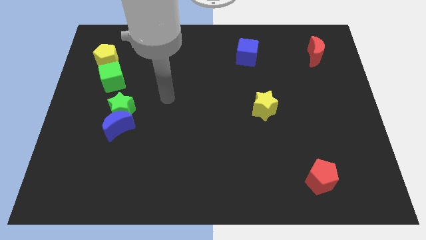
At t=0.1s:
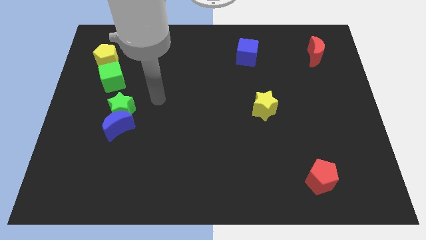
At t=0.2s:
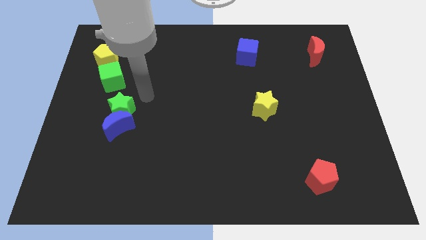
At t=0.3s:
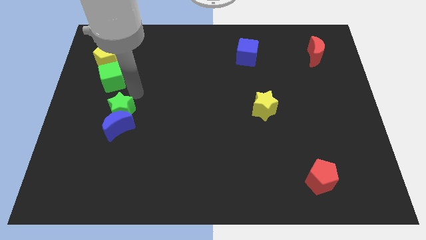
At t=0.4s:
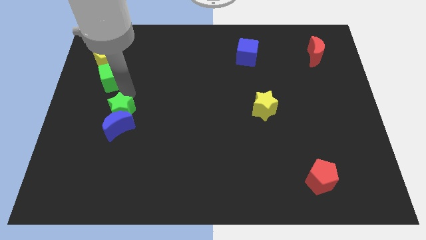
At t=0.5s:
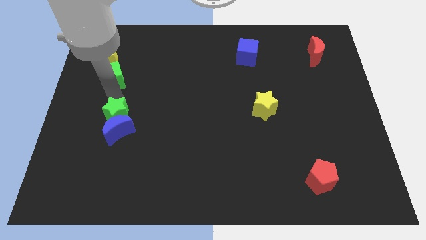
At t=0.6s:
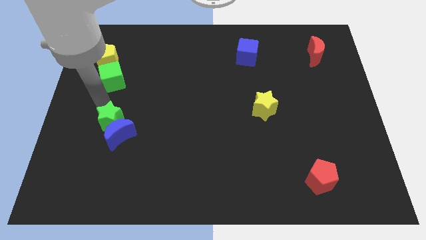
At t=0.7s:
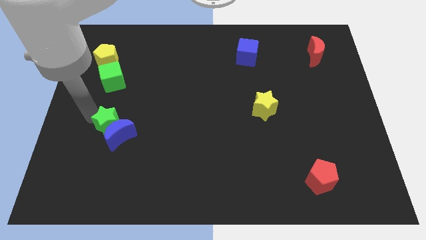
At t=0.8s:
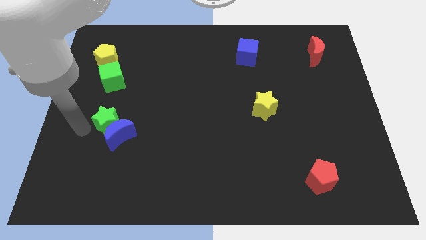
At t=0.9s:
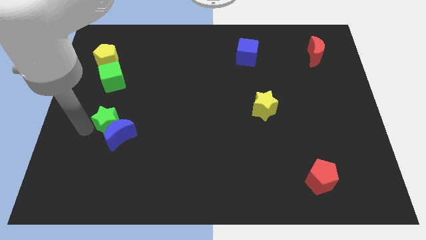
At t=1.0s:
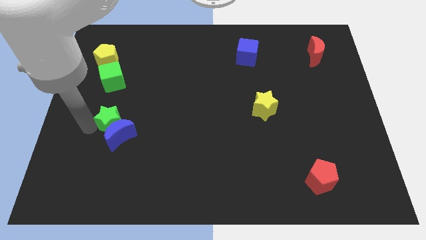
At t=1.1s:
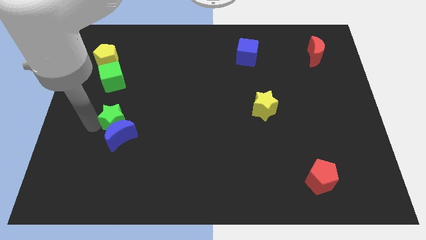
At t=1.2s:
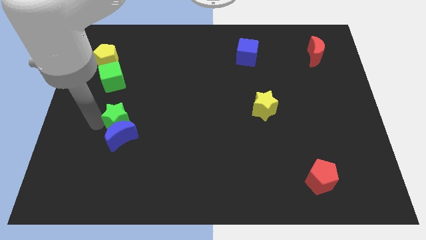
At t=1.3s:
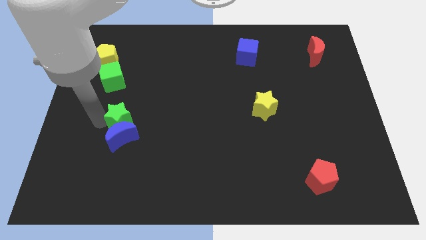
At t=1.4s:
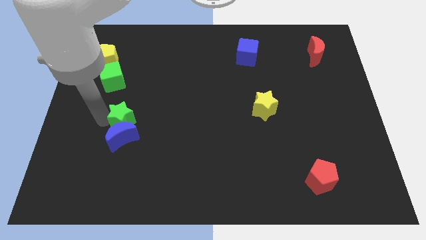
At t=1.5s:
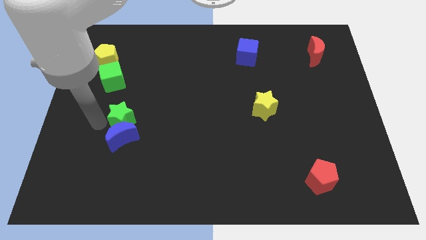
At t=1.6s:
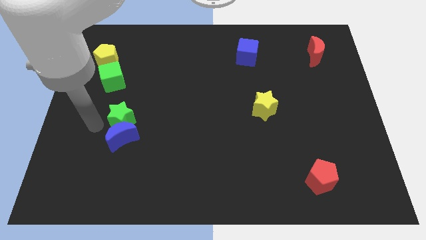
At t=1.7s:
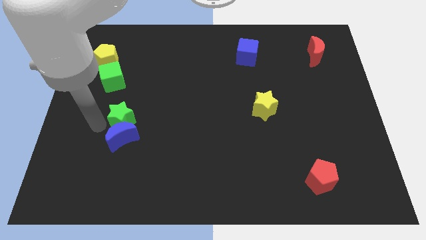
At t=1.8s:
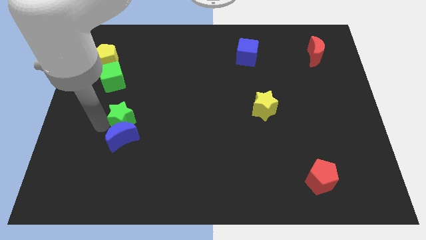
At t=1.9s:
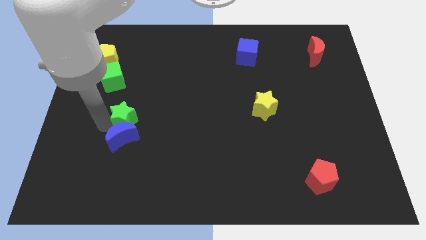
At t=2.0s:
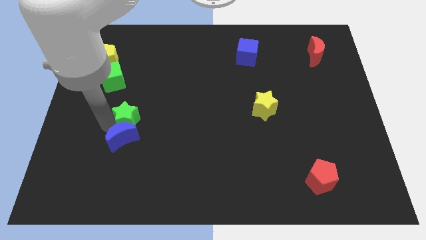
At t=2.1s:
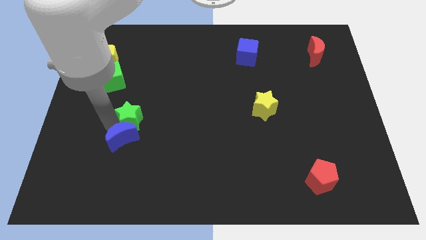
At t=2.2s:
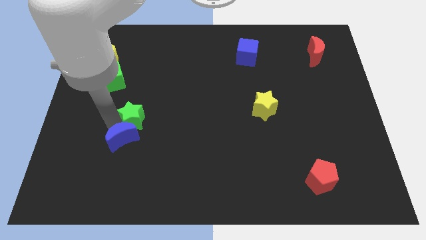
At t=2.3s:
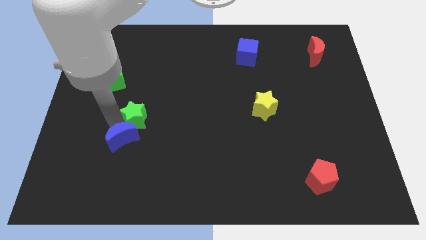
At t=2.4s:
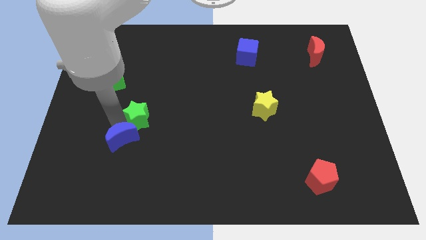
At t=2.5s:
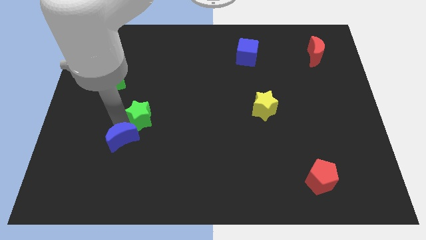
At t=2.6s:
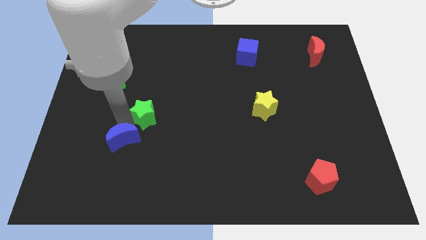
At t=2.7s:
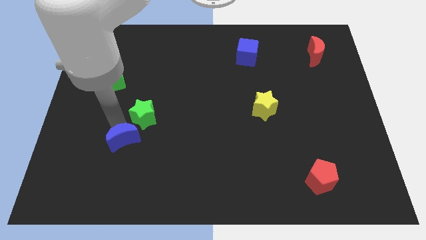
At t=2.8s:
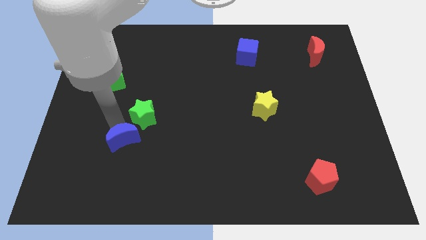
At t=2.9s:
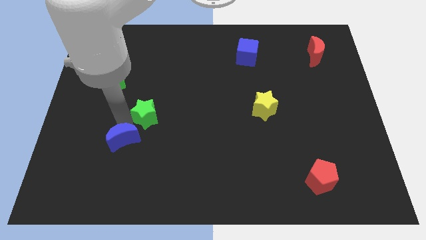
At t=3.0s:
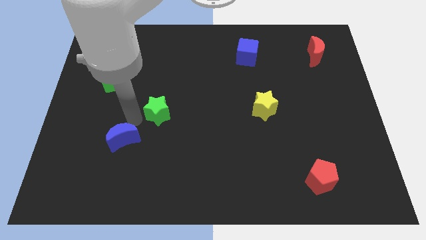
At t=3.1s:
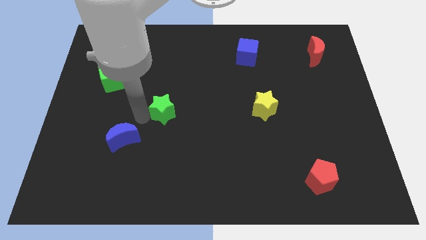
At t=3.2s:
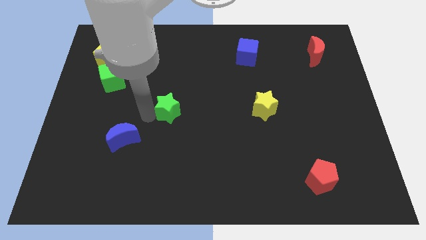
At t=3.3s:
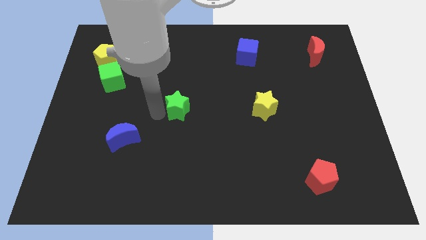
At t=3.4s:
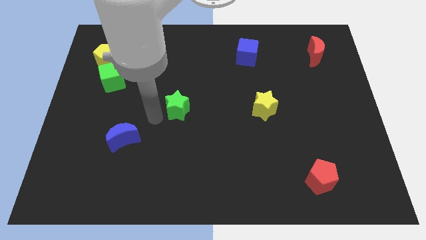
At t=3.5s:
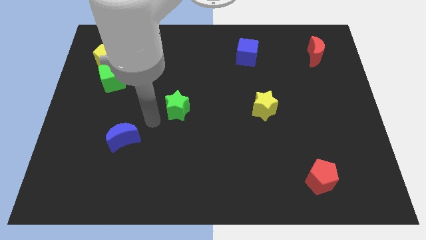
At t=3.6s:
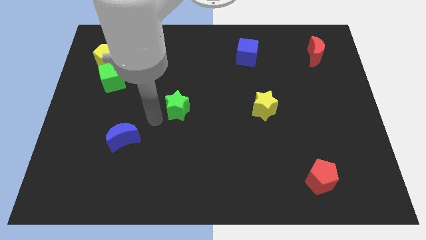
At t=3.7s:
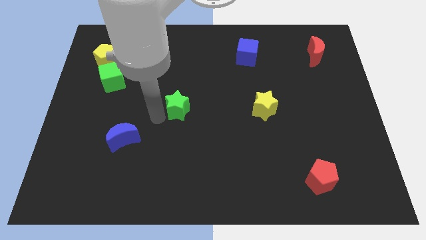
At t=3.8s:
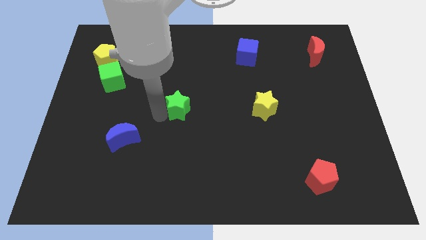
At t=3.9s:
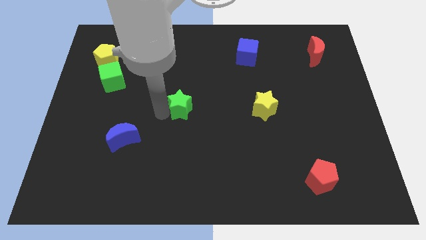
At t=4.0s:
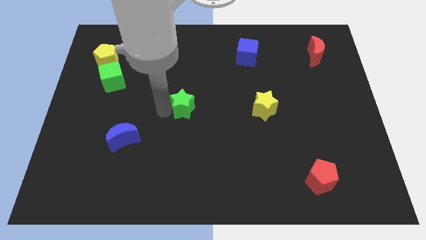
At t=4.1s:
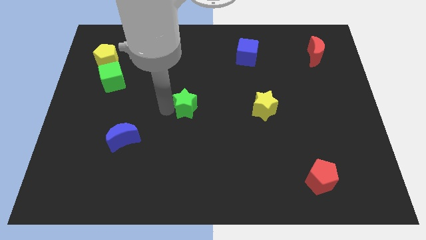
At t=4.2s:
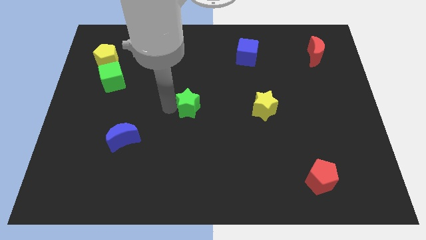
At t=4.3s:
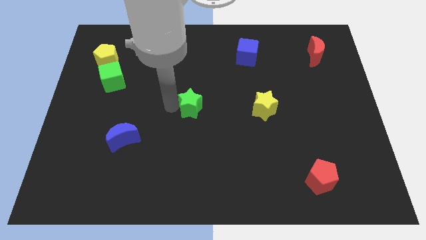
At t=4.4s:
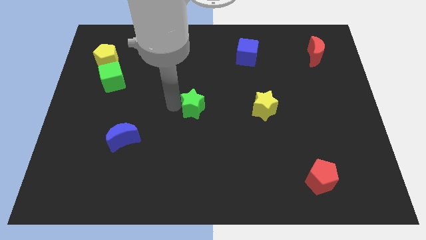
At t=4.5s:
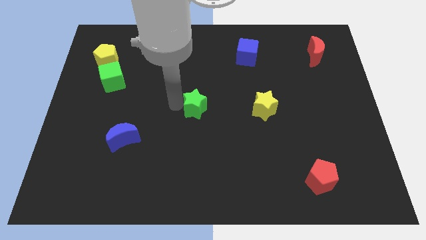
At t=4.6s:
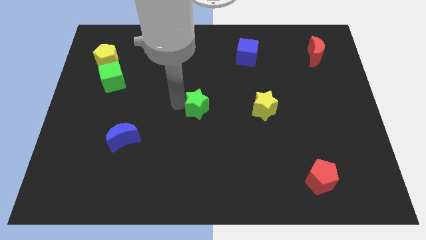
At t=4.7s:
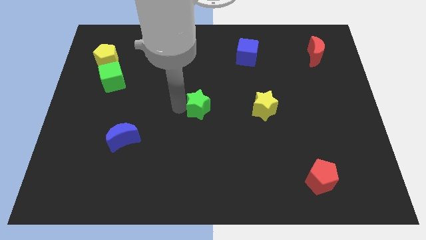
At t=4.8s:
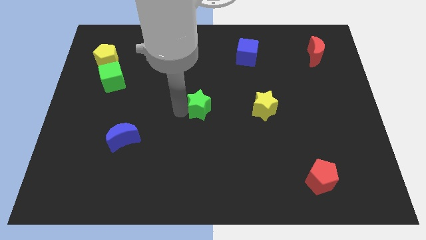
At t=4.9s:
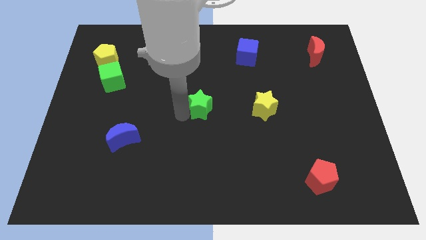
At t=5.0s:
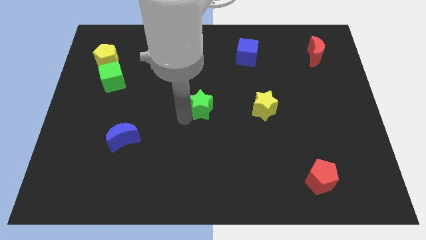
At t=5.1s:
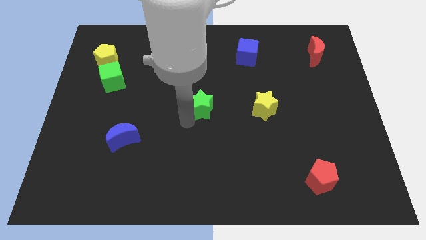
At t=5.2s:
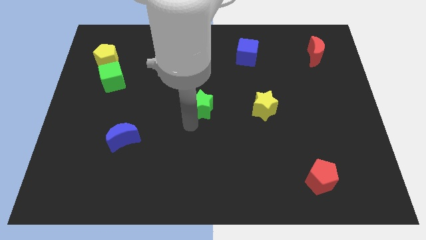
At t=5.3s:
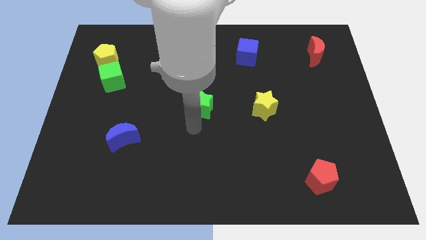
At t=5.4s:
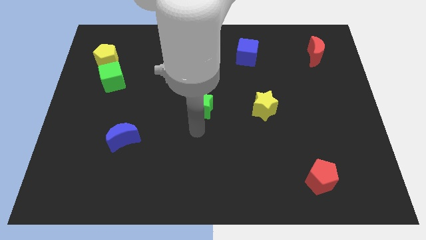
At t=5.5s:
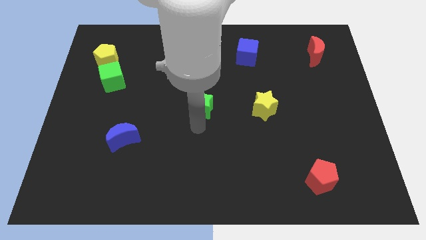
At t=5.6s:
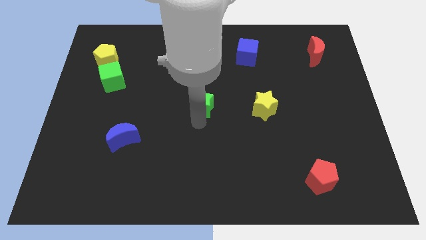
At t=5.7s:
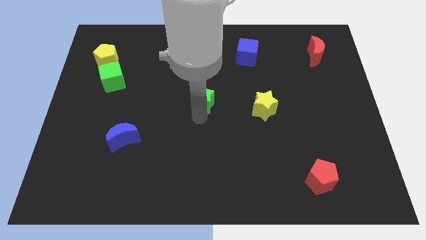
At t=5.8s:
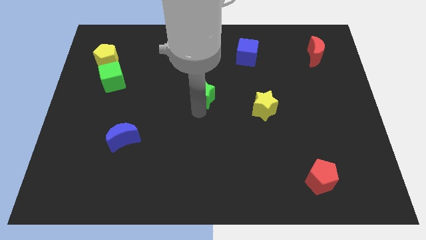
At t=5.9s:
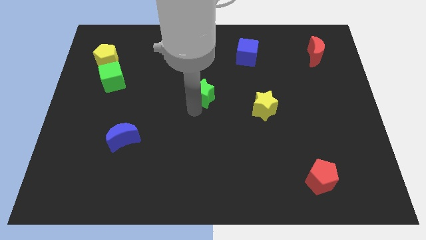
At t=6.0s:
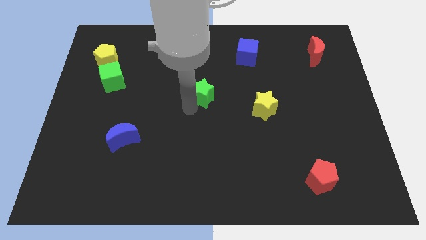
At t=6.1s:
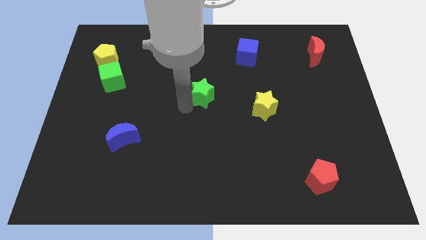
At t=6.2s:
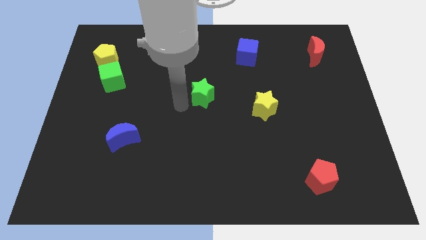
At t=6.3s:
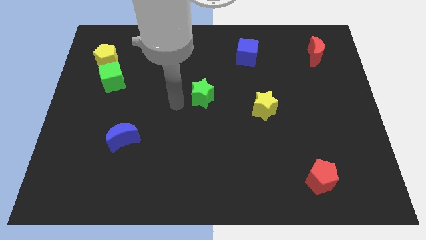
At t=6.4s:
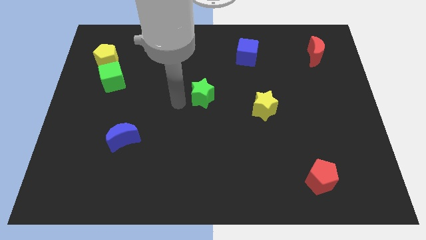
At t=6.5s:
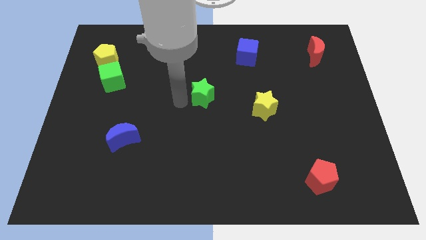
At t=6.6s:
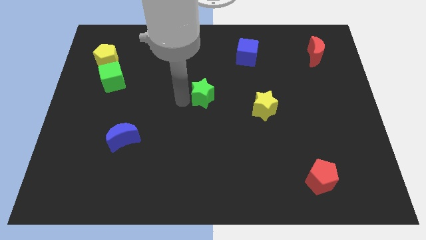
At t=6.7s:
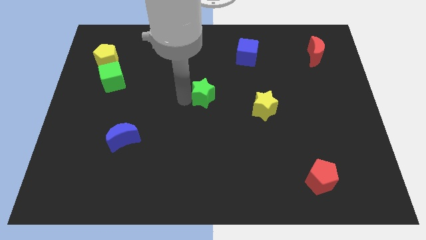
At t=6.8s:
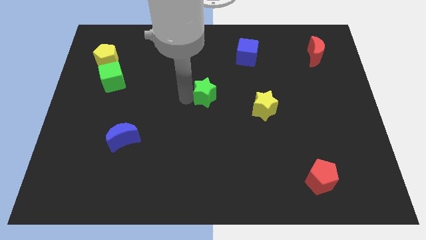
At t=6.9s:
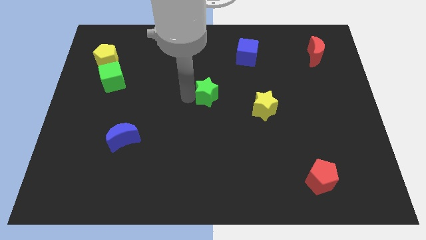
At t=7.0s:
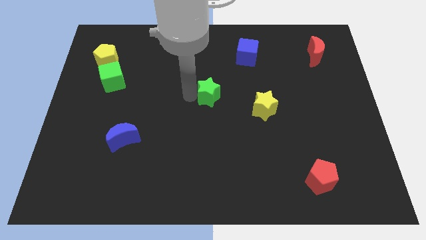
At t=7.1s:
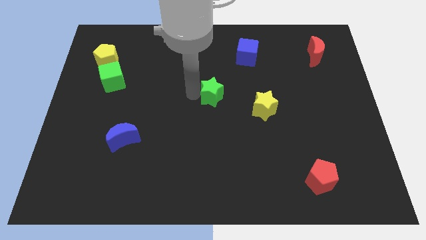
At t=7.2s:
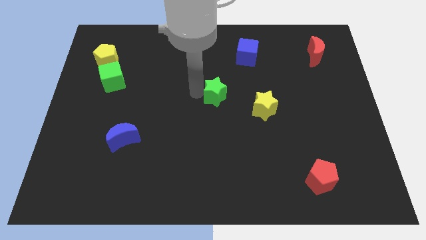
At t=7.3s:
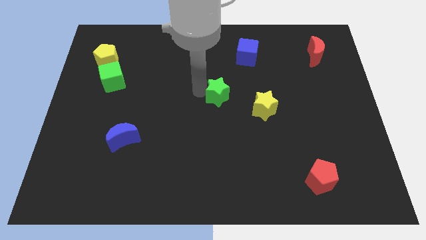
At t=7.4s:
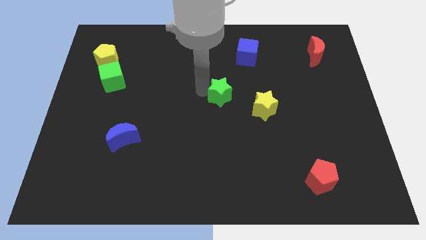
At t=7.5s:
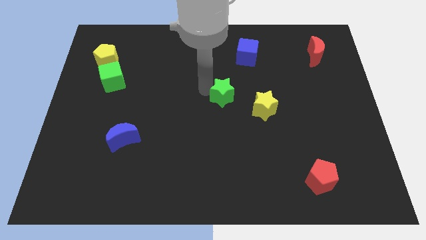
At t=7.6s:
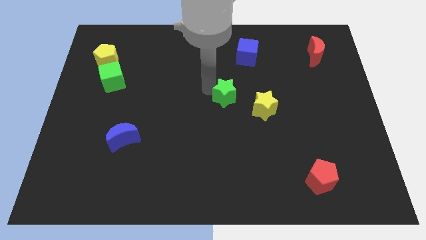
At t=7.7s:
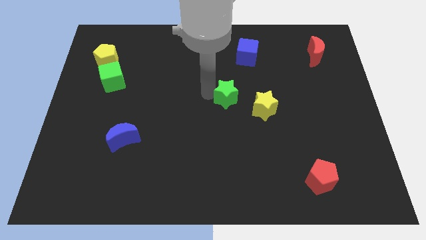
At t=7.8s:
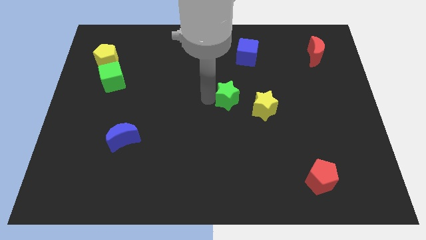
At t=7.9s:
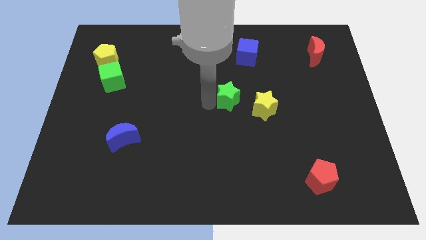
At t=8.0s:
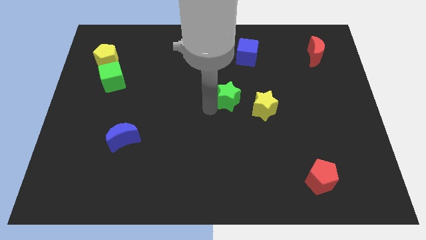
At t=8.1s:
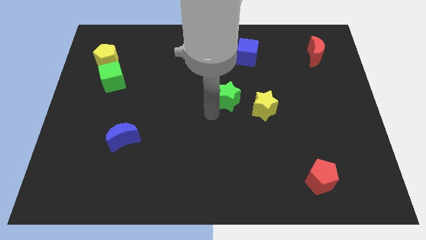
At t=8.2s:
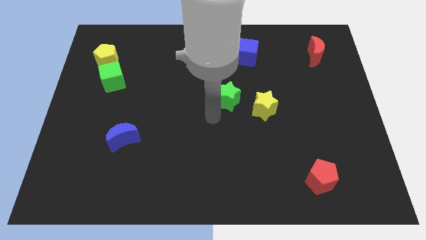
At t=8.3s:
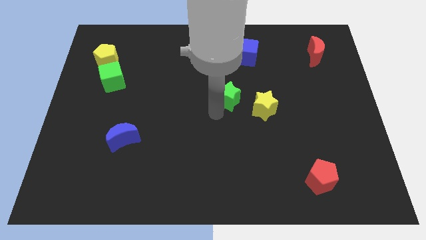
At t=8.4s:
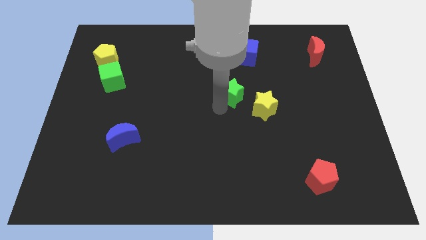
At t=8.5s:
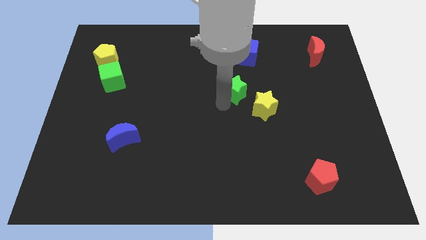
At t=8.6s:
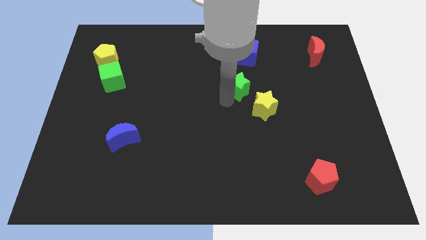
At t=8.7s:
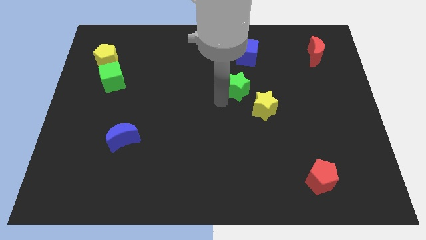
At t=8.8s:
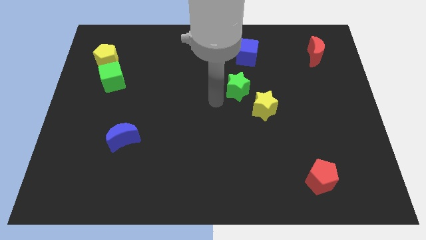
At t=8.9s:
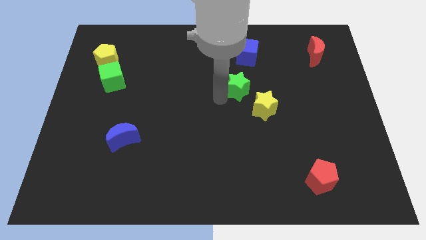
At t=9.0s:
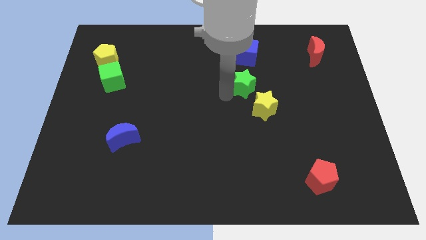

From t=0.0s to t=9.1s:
push the green star to the top of the yellow star
